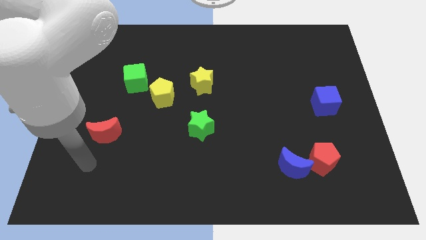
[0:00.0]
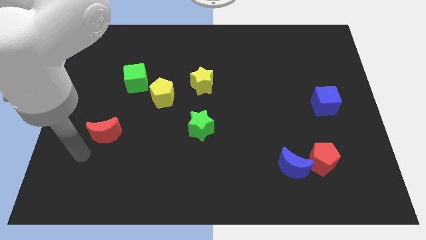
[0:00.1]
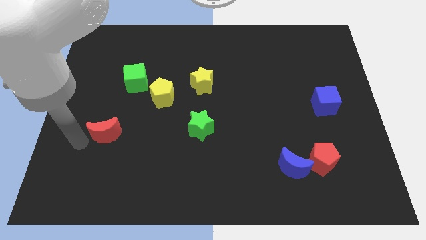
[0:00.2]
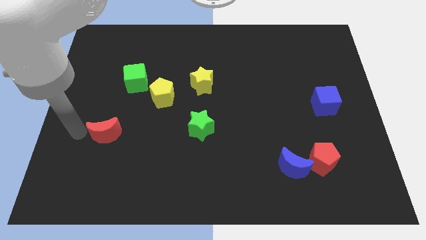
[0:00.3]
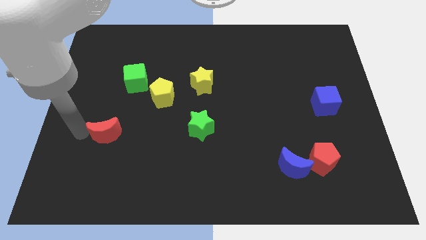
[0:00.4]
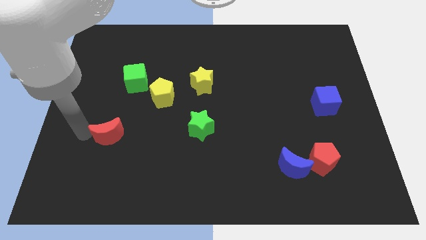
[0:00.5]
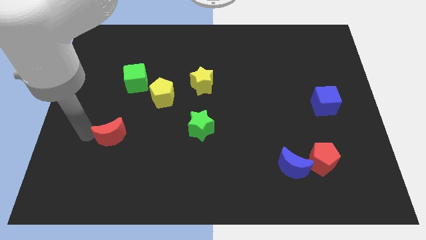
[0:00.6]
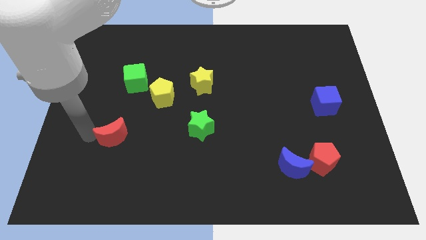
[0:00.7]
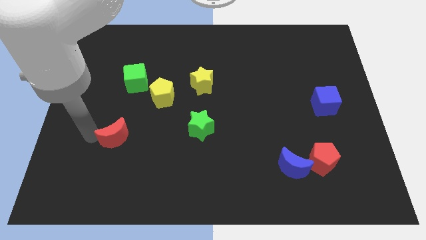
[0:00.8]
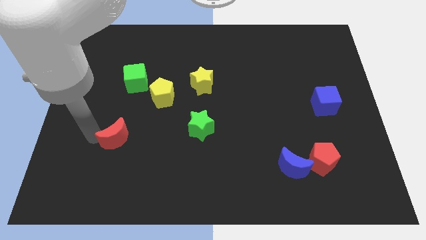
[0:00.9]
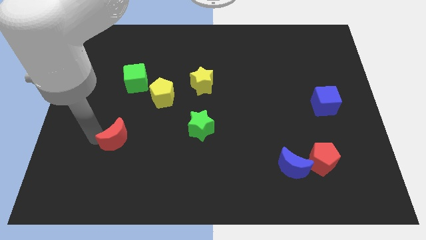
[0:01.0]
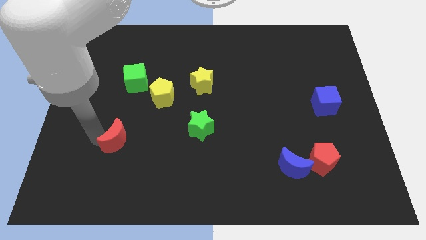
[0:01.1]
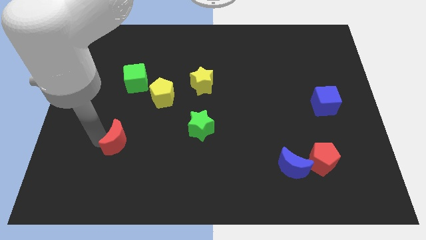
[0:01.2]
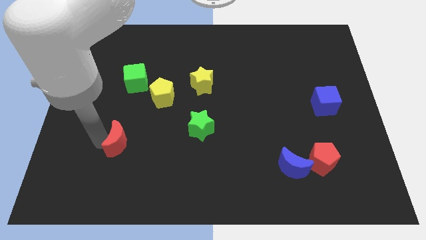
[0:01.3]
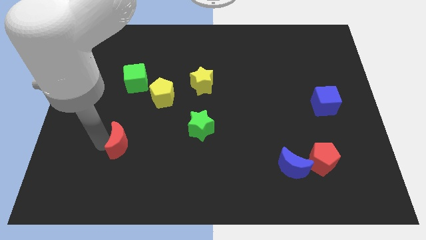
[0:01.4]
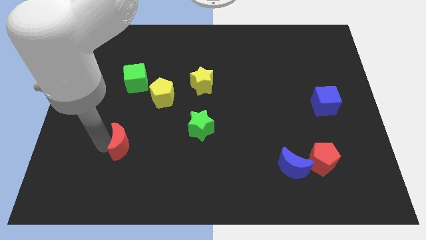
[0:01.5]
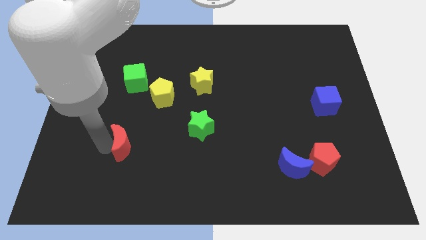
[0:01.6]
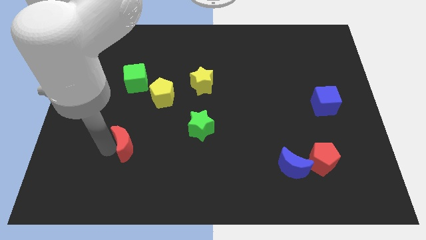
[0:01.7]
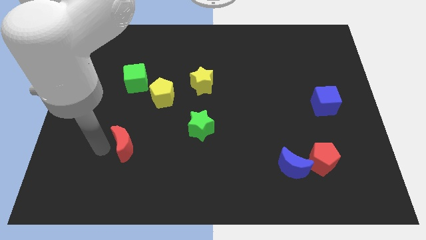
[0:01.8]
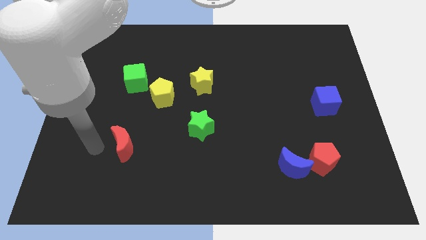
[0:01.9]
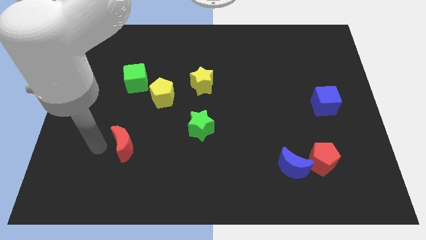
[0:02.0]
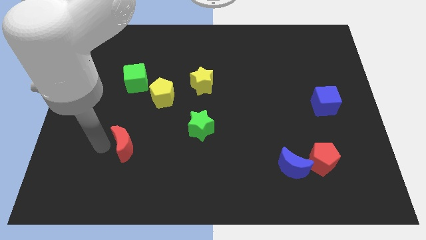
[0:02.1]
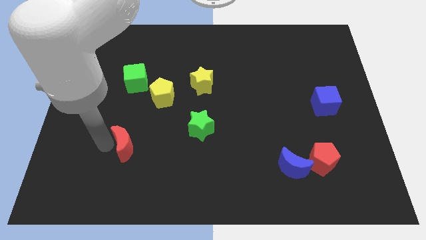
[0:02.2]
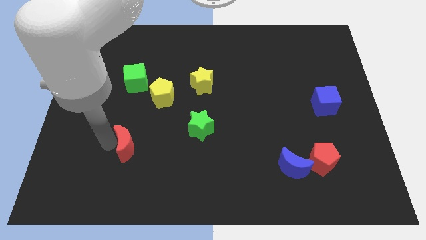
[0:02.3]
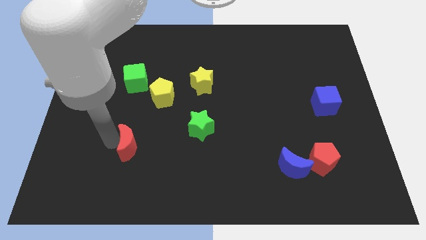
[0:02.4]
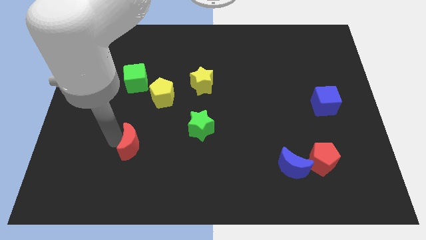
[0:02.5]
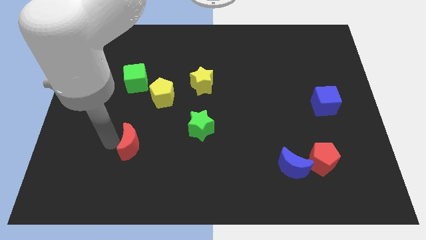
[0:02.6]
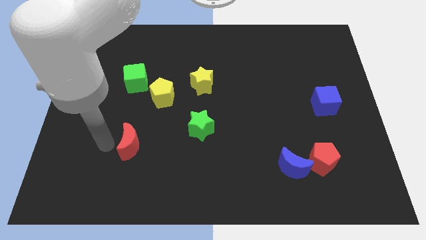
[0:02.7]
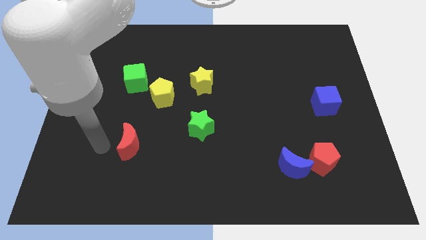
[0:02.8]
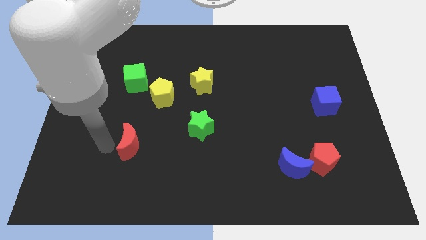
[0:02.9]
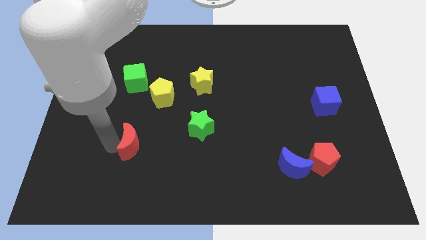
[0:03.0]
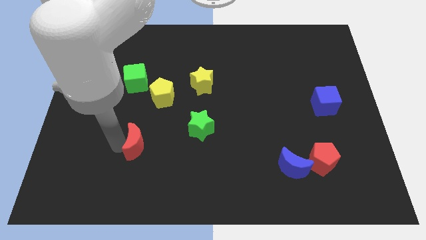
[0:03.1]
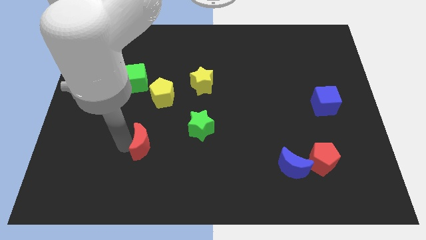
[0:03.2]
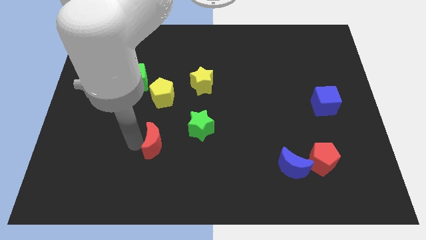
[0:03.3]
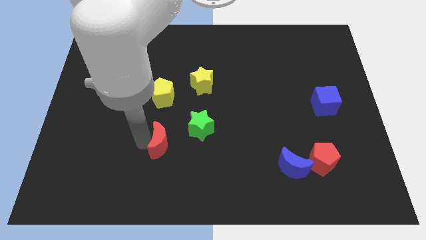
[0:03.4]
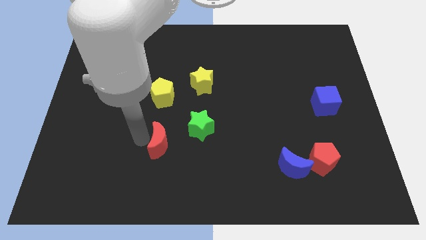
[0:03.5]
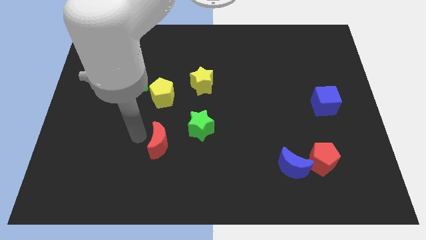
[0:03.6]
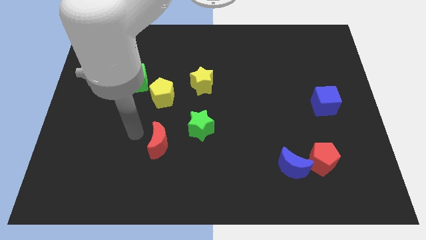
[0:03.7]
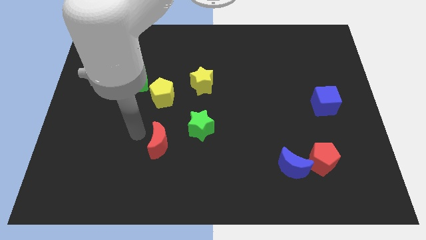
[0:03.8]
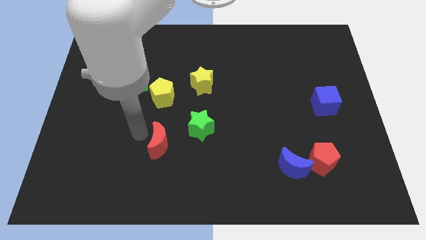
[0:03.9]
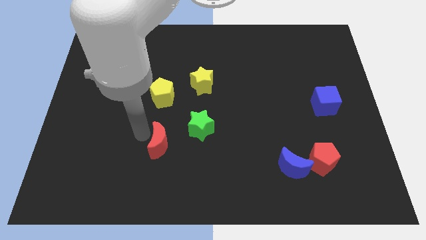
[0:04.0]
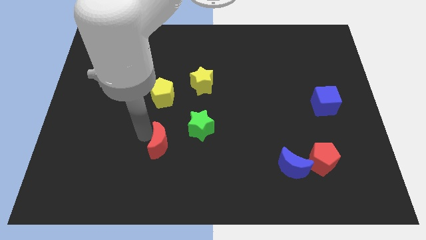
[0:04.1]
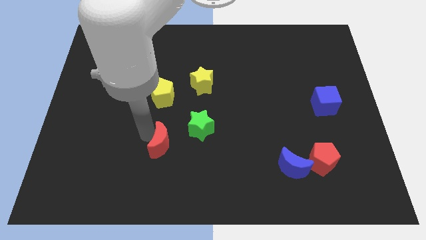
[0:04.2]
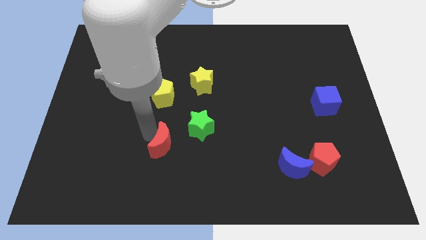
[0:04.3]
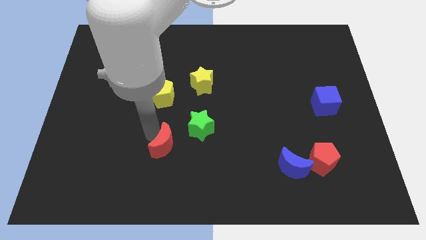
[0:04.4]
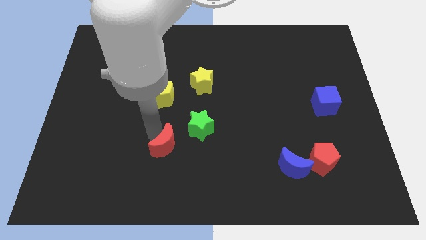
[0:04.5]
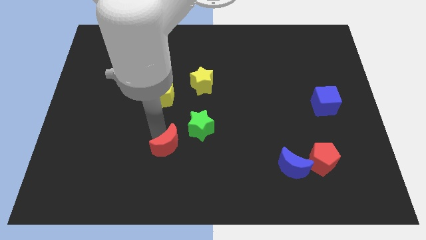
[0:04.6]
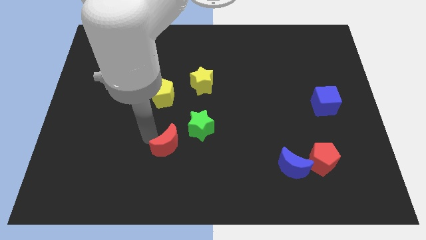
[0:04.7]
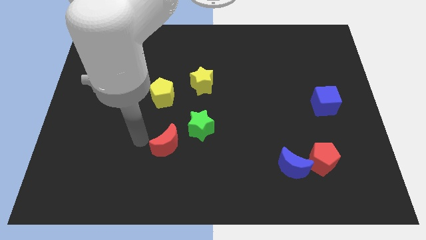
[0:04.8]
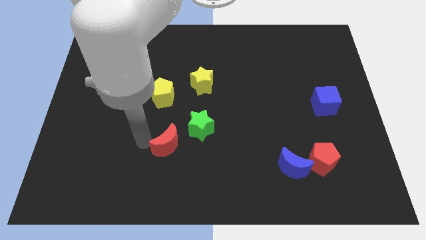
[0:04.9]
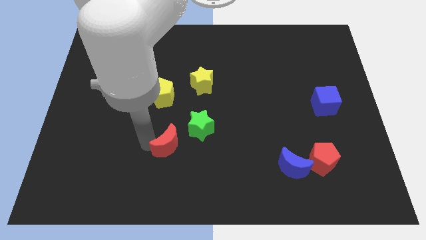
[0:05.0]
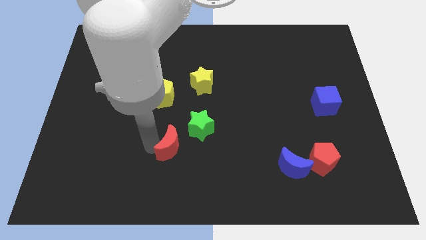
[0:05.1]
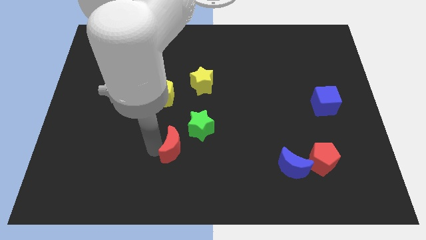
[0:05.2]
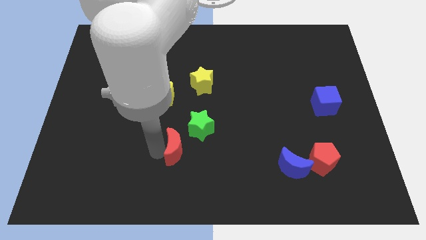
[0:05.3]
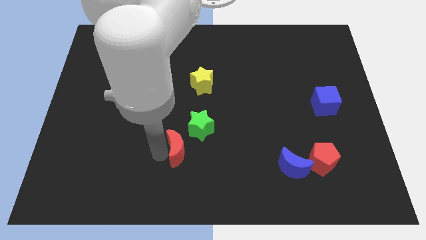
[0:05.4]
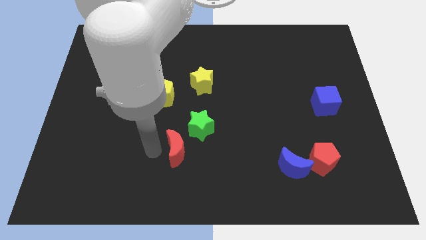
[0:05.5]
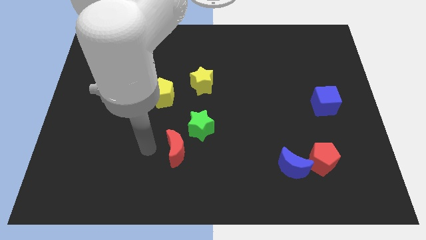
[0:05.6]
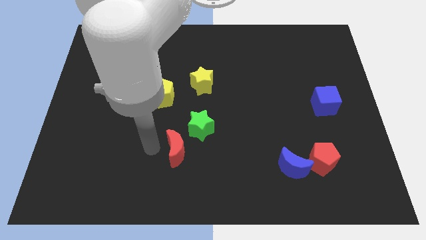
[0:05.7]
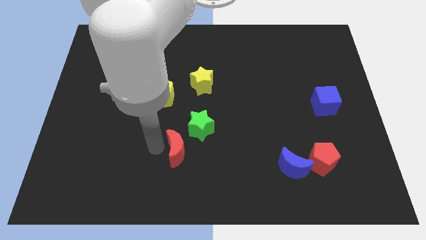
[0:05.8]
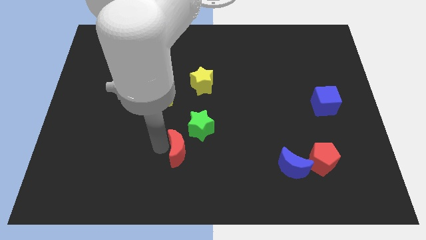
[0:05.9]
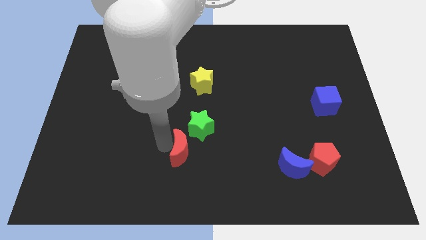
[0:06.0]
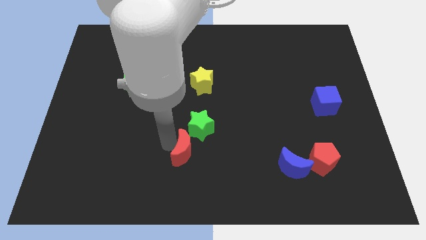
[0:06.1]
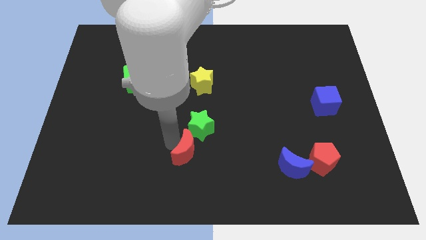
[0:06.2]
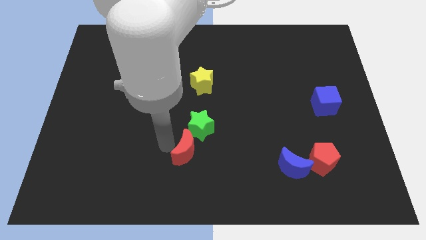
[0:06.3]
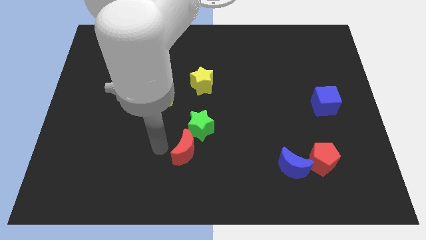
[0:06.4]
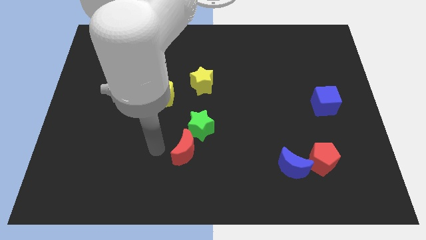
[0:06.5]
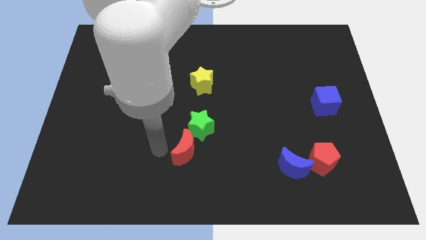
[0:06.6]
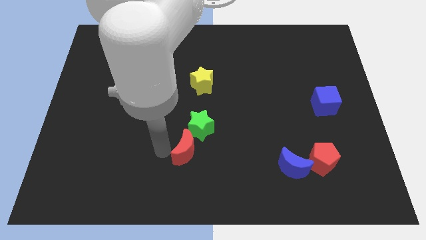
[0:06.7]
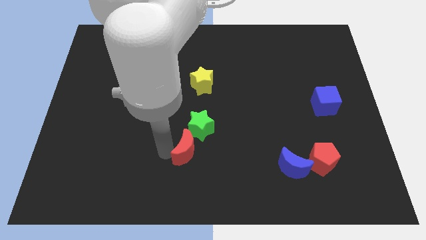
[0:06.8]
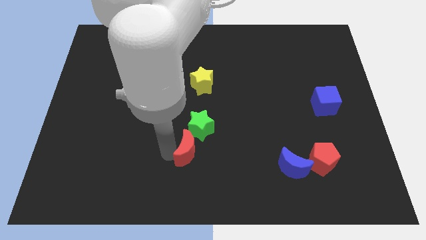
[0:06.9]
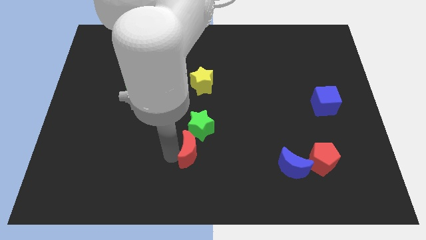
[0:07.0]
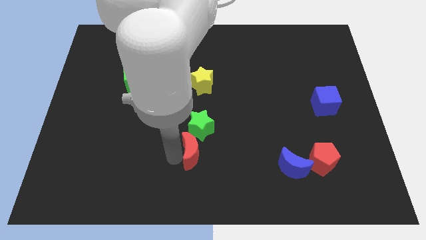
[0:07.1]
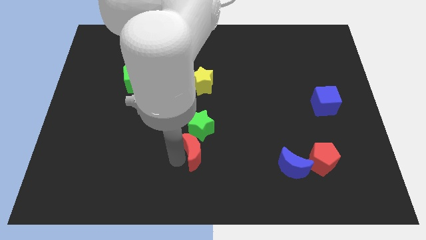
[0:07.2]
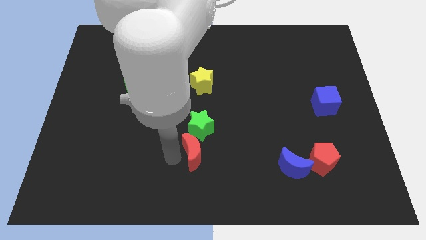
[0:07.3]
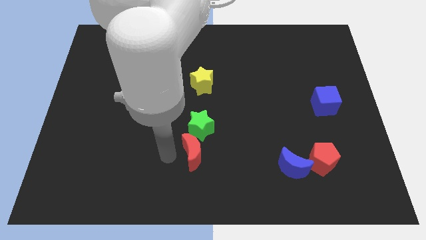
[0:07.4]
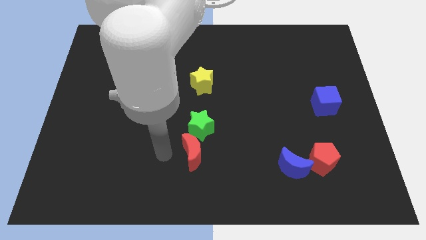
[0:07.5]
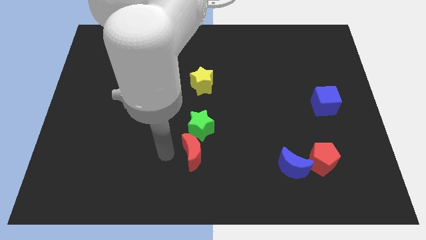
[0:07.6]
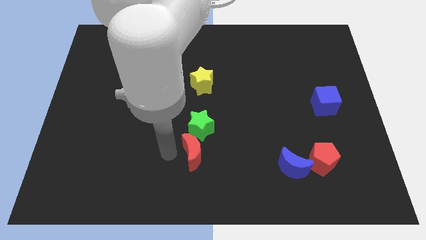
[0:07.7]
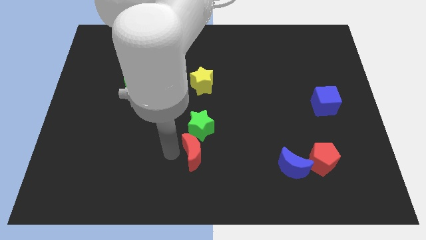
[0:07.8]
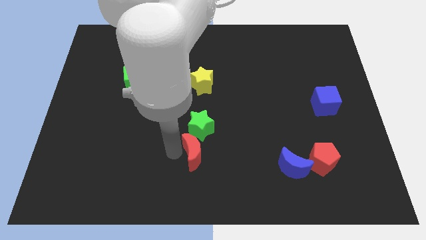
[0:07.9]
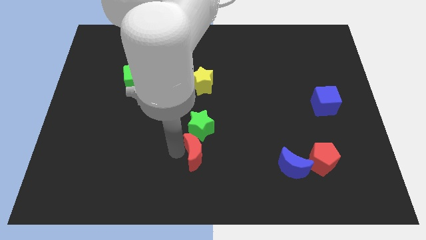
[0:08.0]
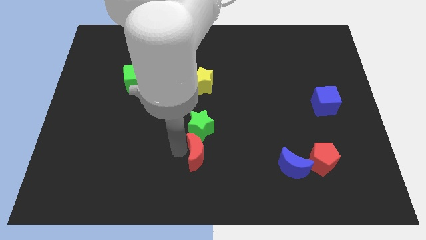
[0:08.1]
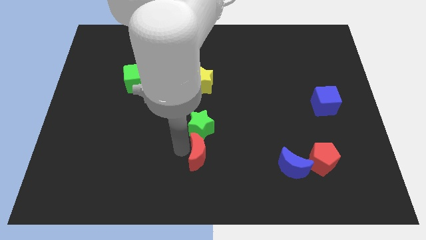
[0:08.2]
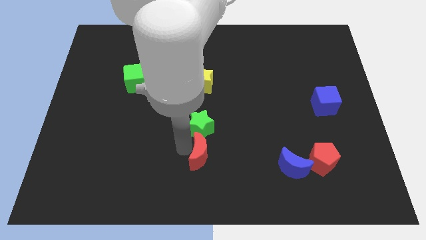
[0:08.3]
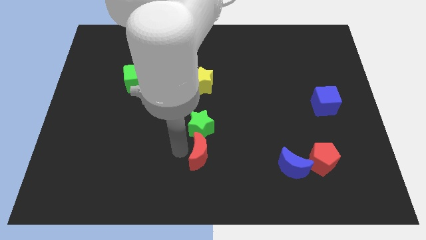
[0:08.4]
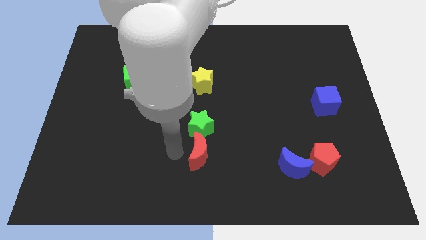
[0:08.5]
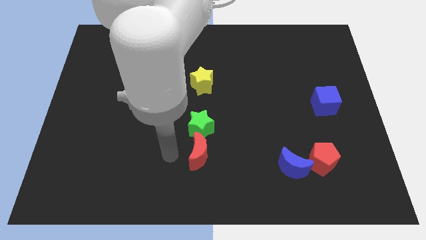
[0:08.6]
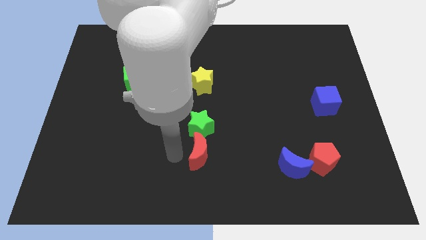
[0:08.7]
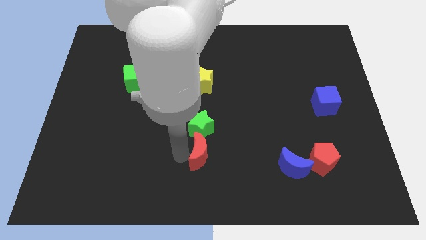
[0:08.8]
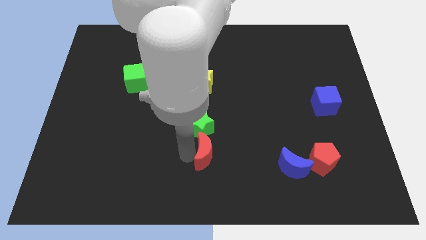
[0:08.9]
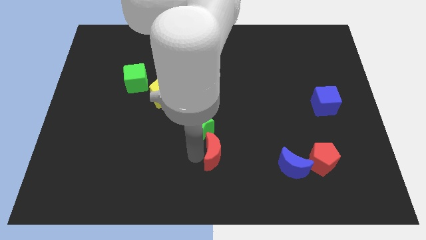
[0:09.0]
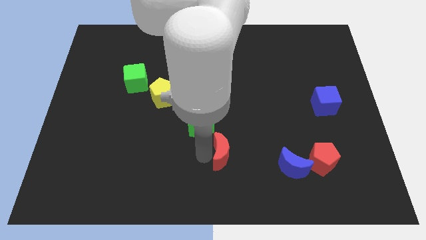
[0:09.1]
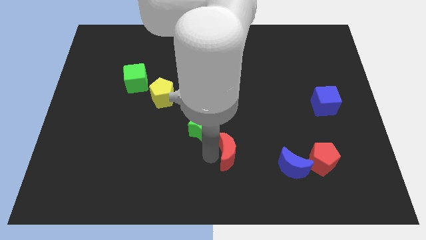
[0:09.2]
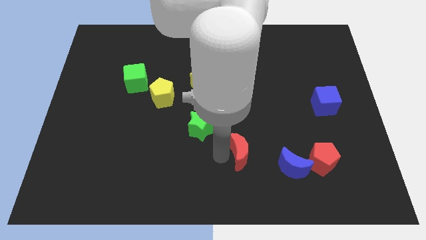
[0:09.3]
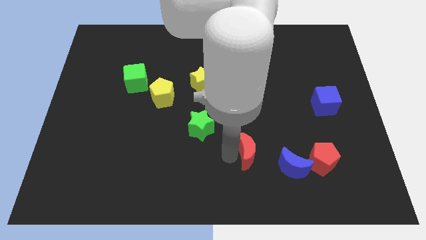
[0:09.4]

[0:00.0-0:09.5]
move the red moon to the top left of the blue moon
